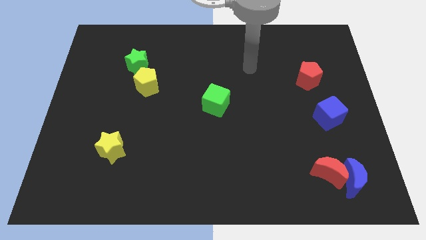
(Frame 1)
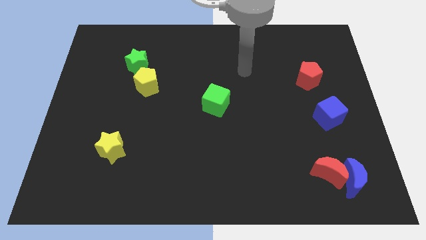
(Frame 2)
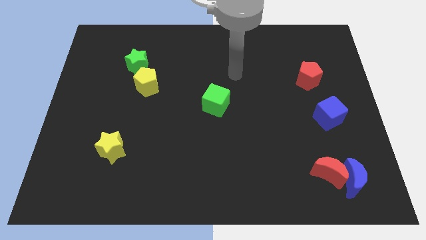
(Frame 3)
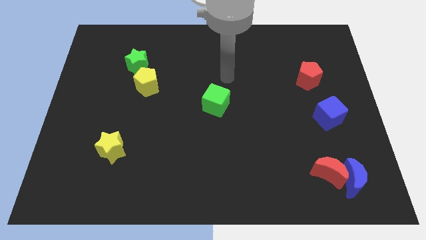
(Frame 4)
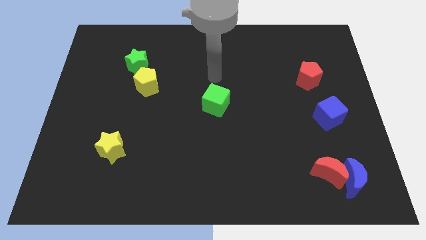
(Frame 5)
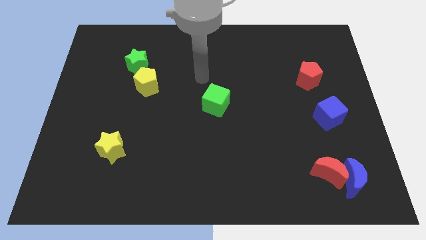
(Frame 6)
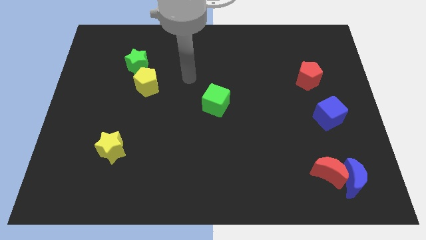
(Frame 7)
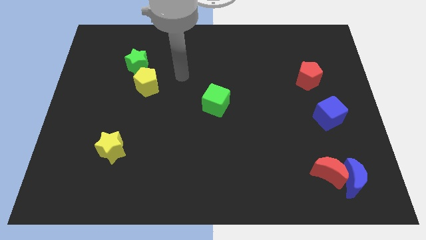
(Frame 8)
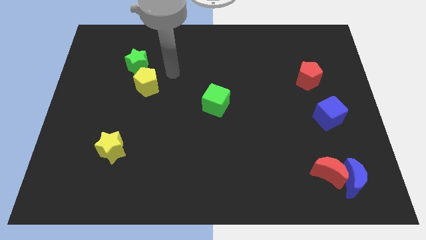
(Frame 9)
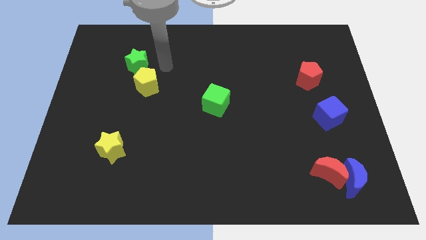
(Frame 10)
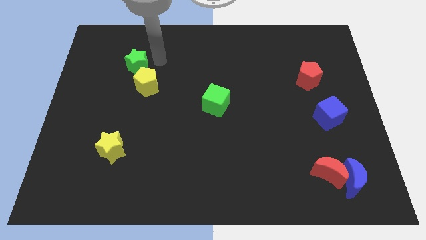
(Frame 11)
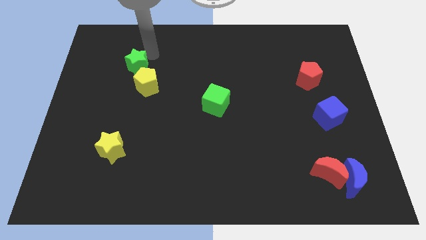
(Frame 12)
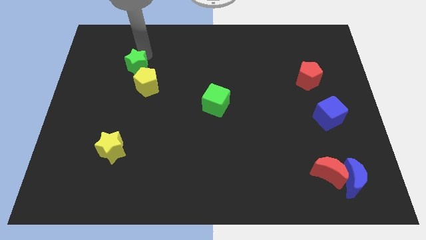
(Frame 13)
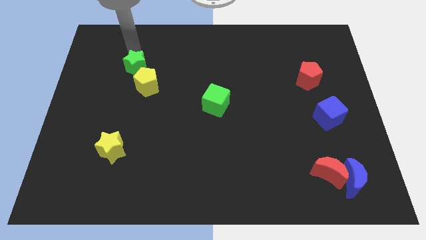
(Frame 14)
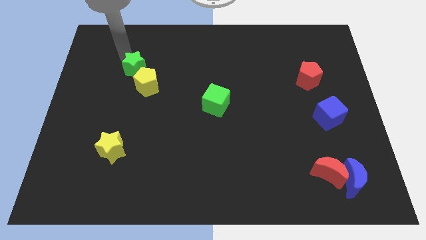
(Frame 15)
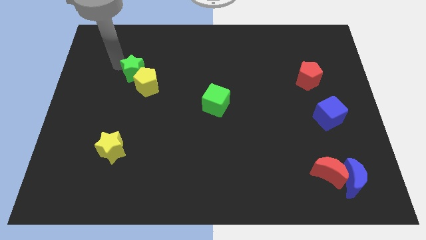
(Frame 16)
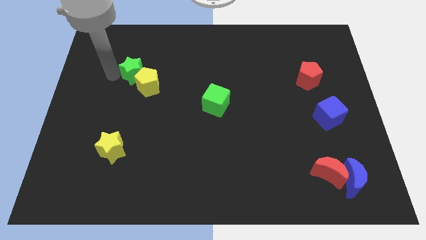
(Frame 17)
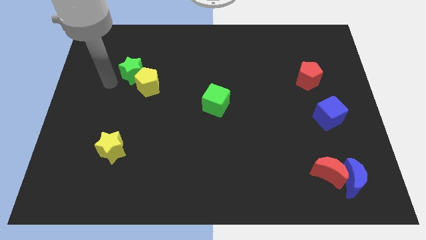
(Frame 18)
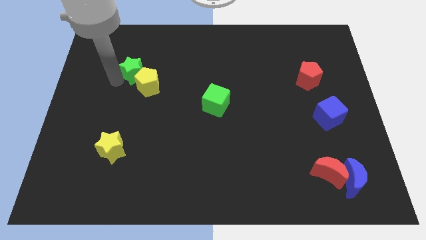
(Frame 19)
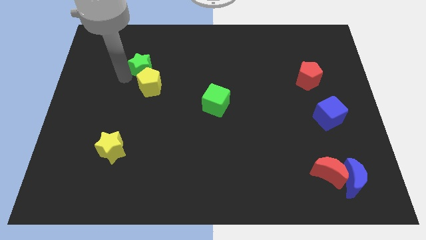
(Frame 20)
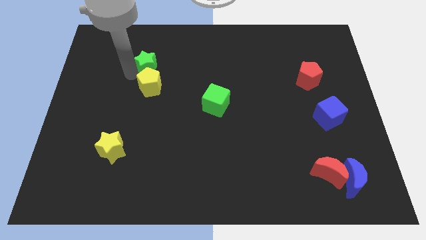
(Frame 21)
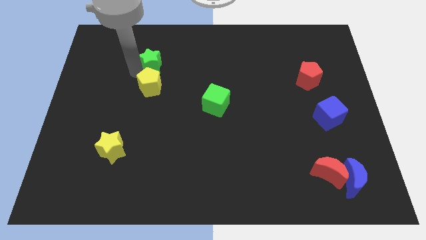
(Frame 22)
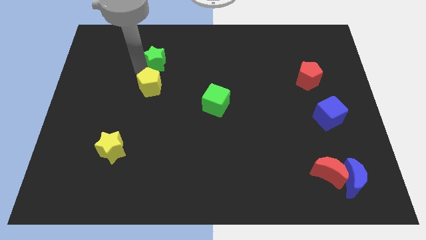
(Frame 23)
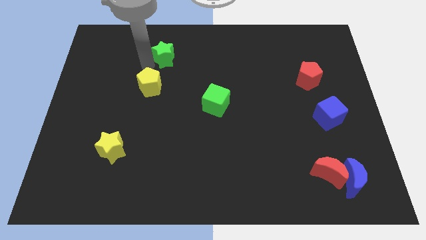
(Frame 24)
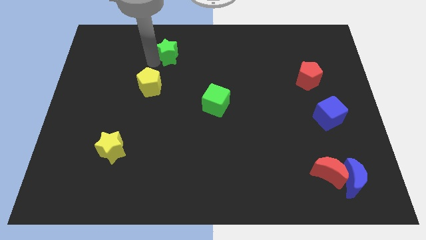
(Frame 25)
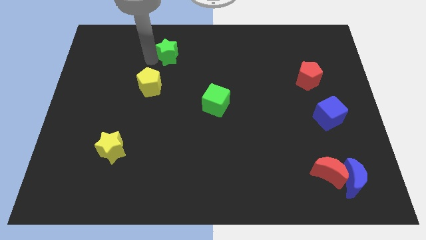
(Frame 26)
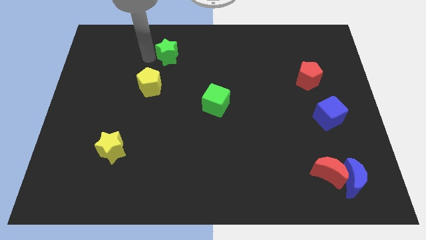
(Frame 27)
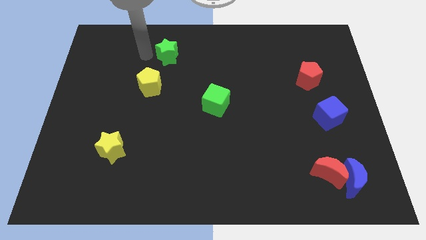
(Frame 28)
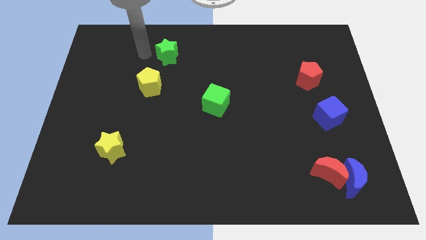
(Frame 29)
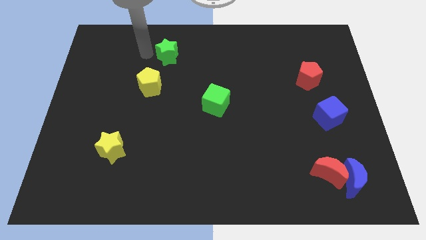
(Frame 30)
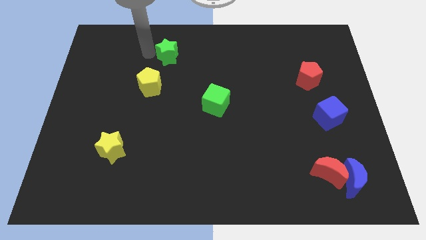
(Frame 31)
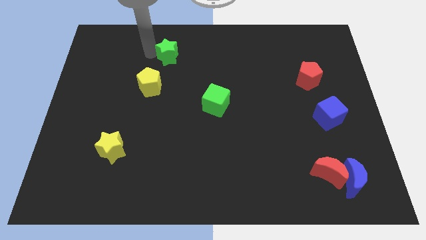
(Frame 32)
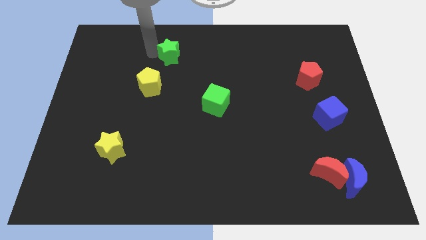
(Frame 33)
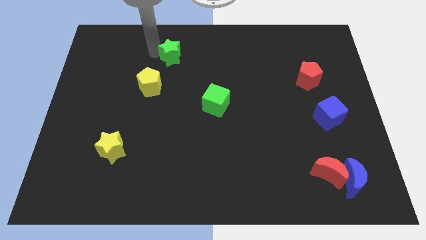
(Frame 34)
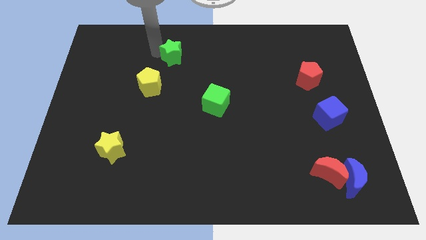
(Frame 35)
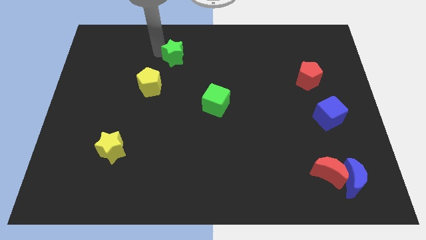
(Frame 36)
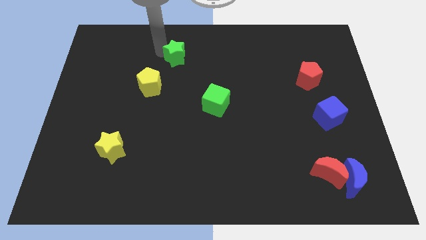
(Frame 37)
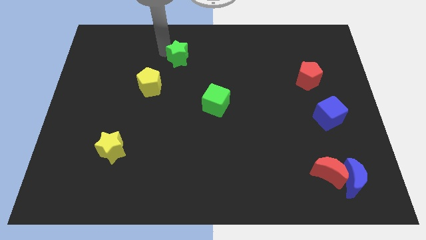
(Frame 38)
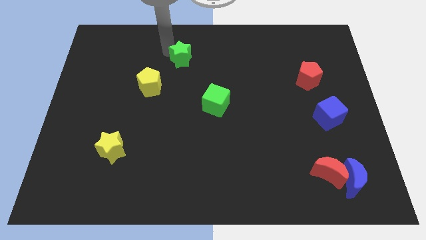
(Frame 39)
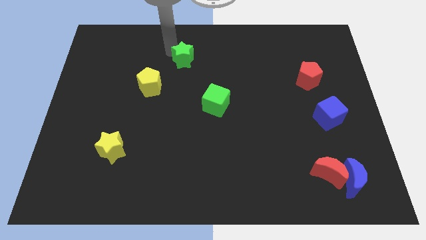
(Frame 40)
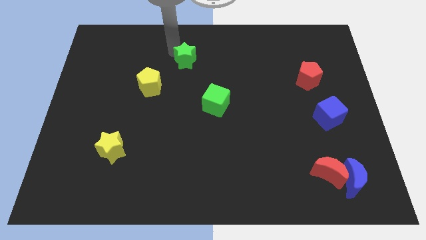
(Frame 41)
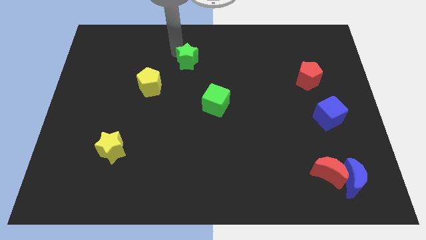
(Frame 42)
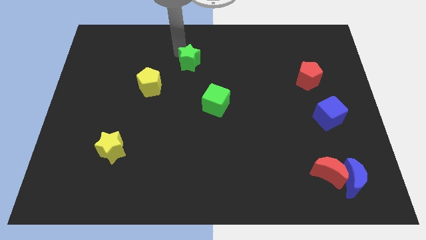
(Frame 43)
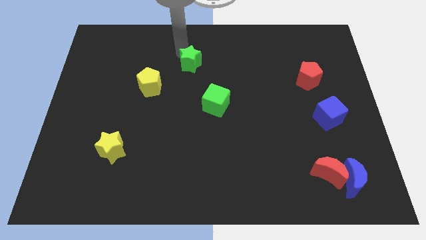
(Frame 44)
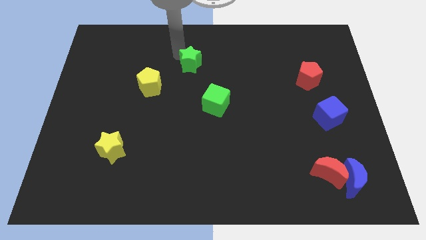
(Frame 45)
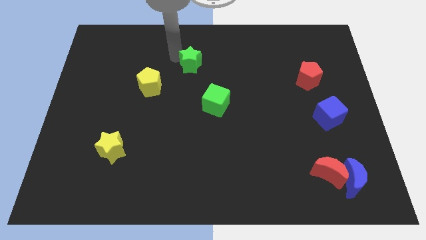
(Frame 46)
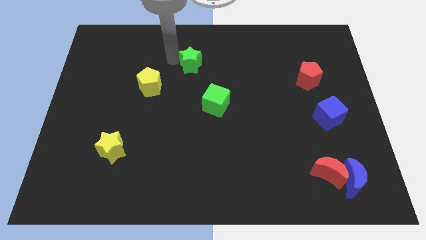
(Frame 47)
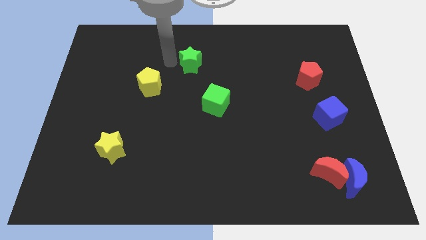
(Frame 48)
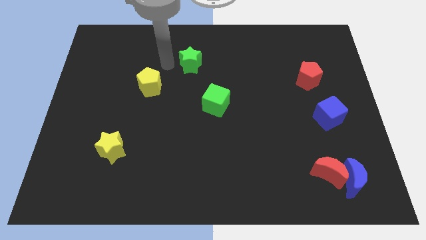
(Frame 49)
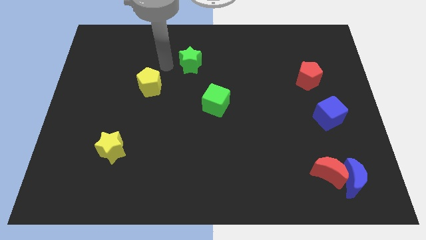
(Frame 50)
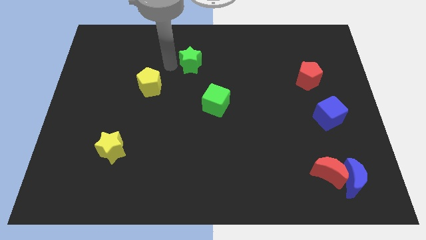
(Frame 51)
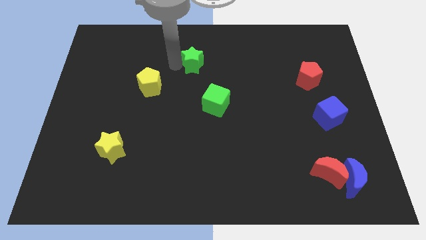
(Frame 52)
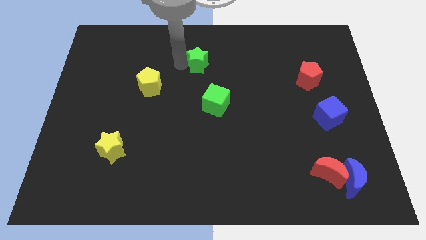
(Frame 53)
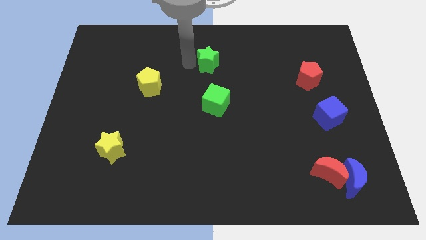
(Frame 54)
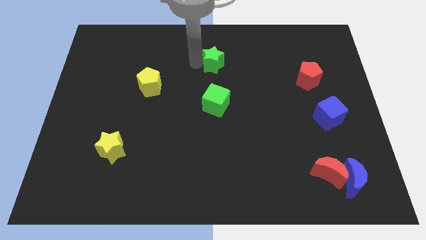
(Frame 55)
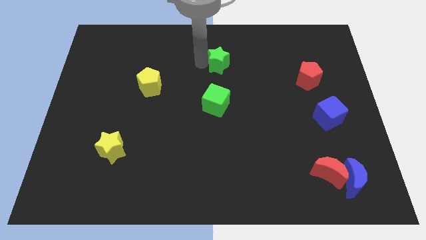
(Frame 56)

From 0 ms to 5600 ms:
push the green star to the right

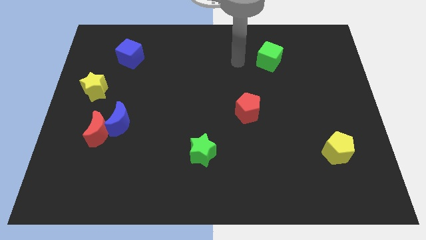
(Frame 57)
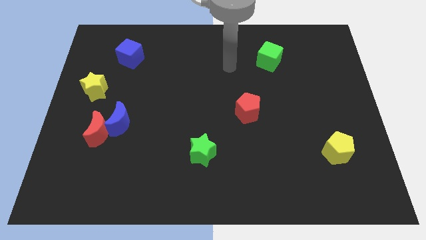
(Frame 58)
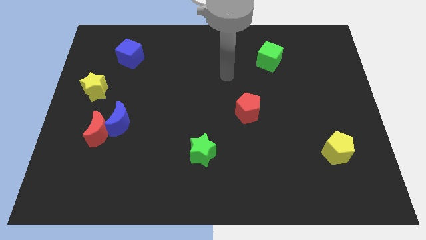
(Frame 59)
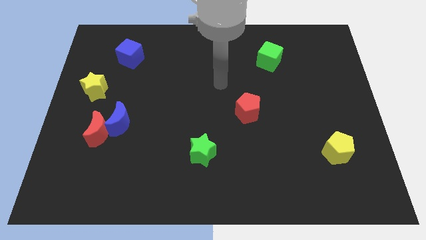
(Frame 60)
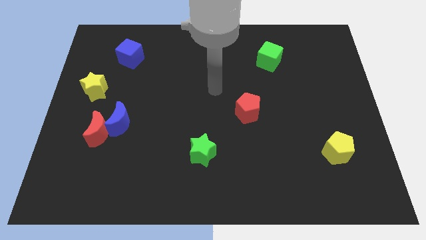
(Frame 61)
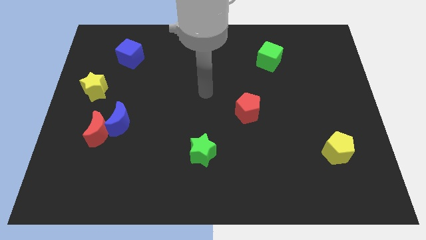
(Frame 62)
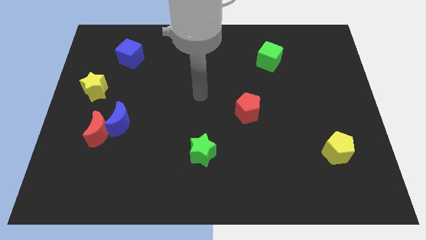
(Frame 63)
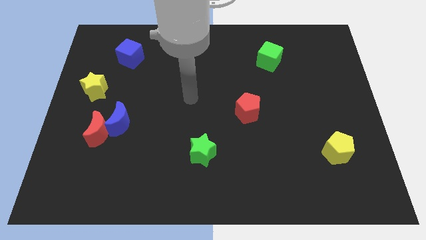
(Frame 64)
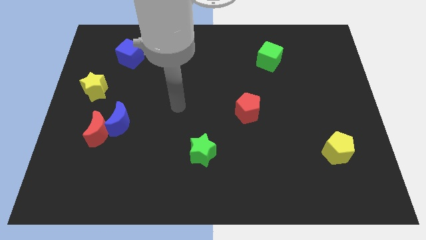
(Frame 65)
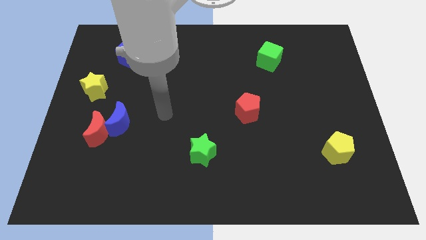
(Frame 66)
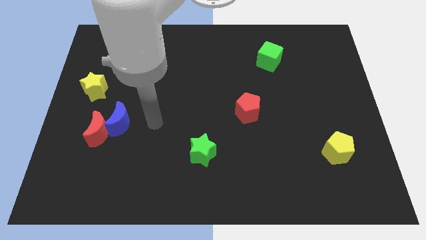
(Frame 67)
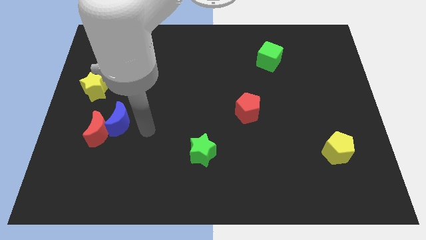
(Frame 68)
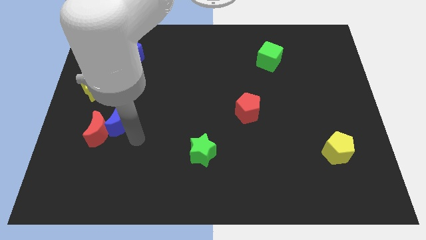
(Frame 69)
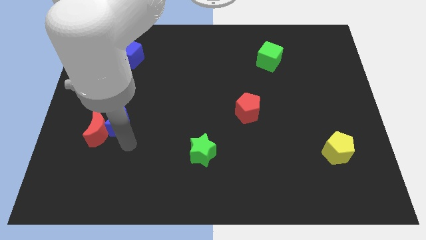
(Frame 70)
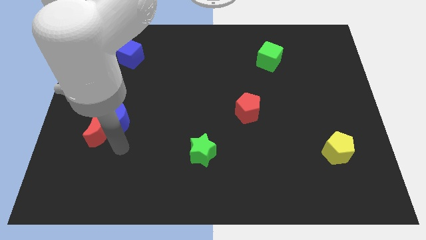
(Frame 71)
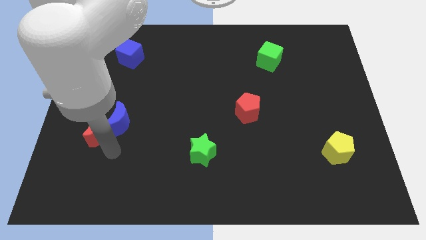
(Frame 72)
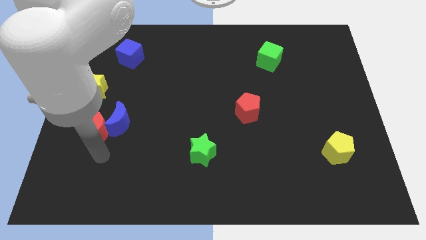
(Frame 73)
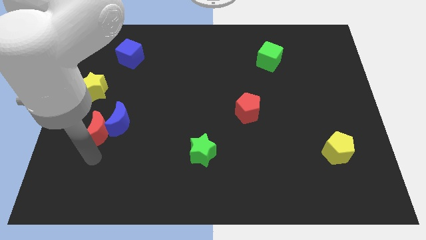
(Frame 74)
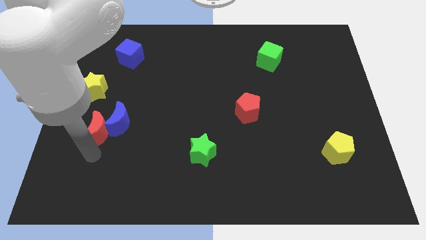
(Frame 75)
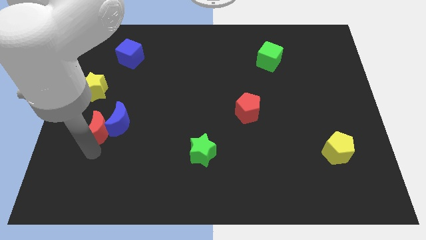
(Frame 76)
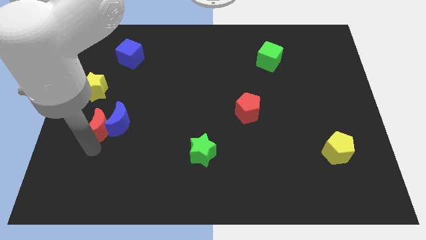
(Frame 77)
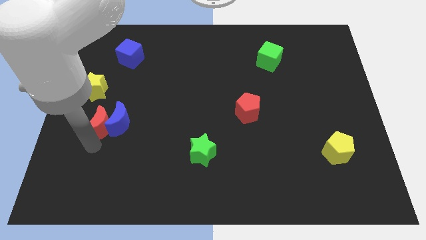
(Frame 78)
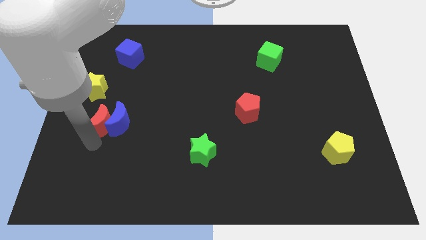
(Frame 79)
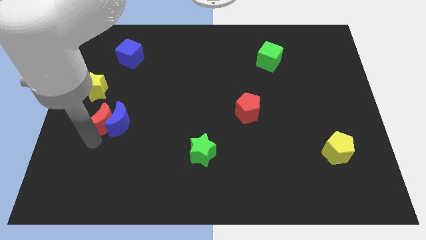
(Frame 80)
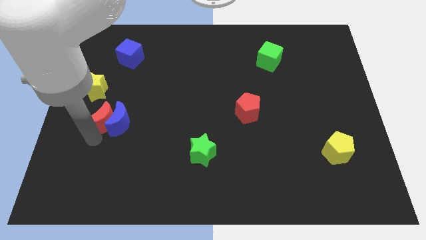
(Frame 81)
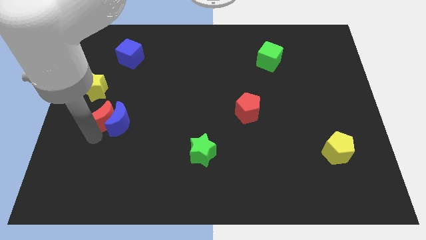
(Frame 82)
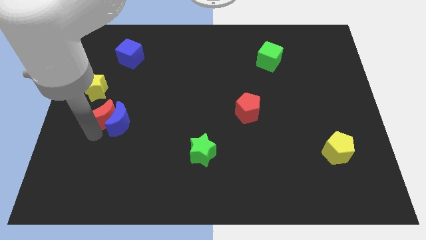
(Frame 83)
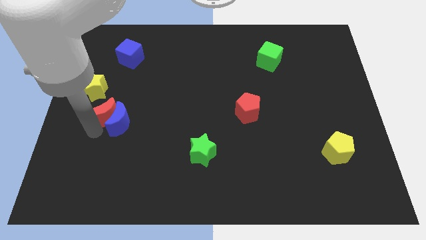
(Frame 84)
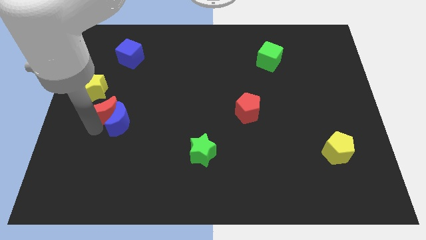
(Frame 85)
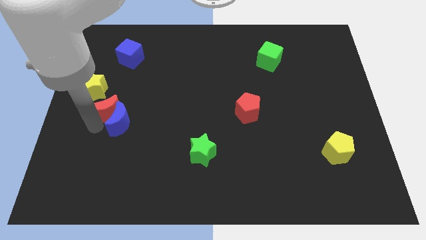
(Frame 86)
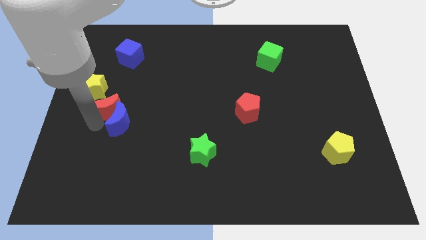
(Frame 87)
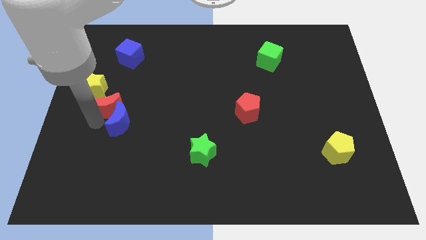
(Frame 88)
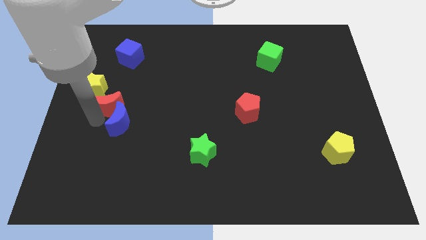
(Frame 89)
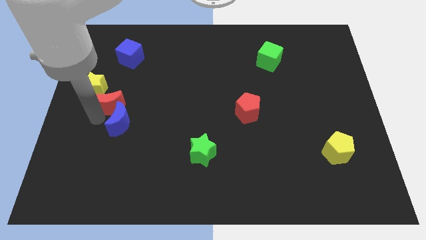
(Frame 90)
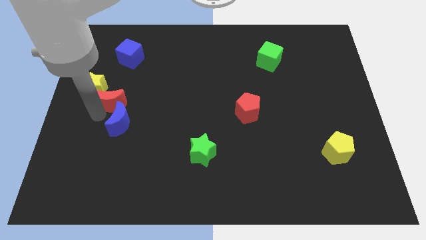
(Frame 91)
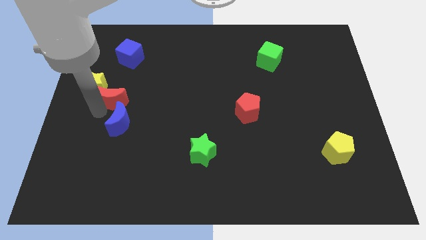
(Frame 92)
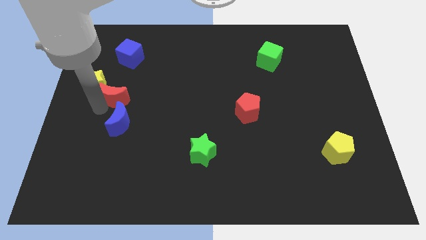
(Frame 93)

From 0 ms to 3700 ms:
push the red moon diagonally up and to the right a little
